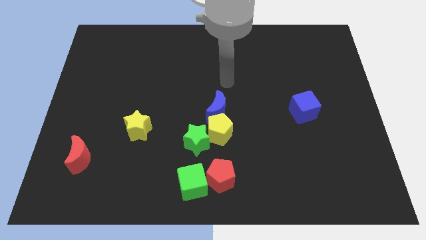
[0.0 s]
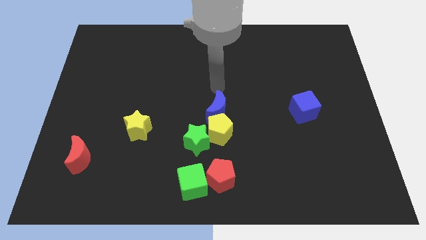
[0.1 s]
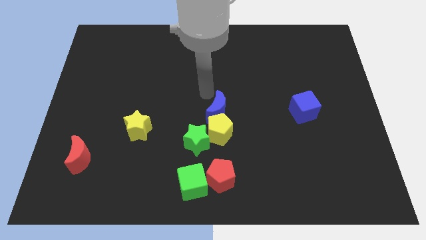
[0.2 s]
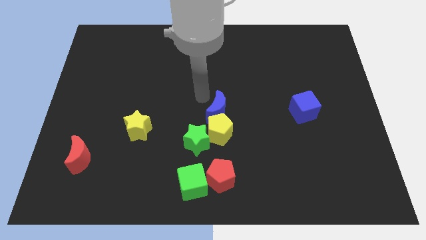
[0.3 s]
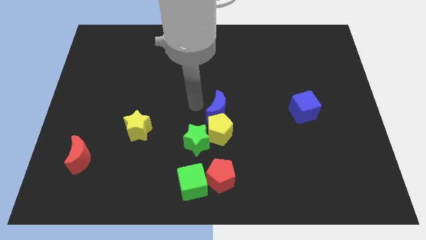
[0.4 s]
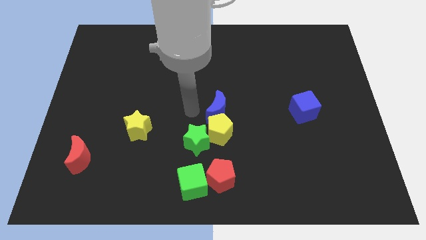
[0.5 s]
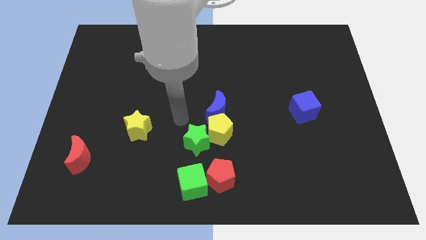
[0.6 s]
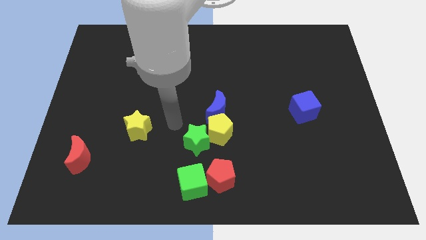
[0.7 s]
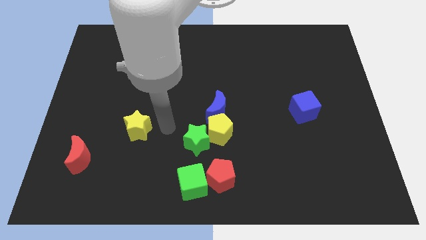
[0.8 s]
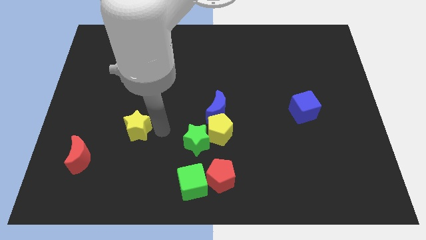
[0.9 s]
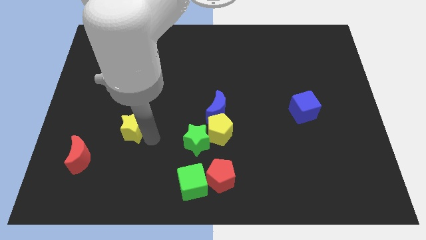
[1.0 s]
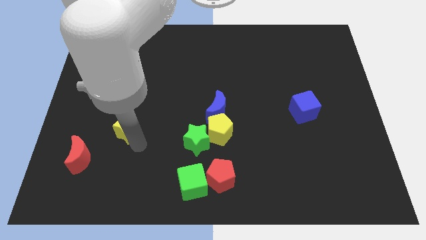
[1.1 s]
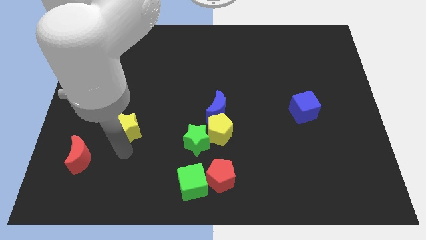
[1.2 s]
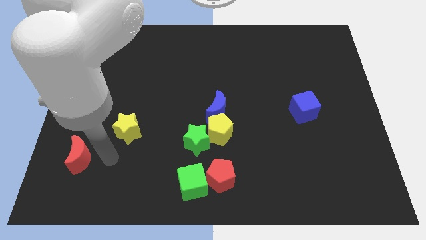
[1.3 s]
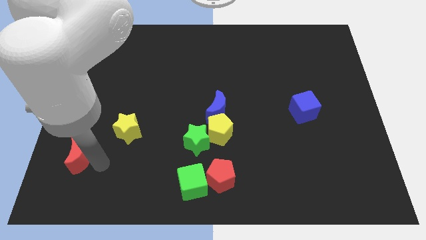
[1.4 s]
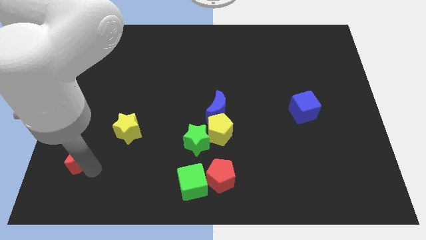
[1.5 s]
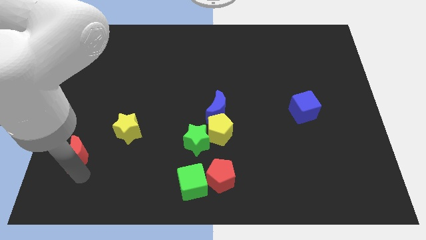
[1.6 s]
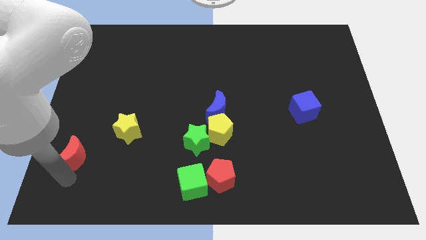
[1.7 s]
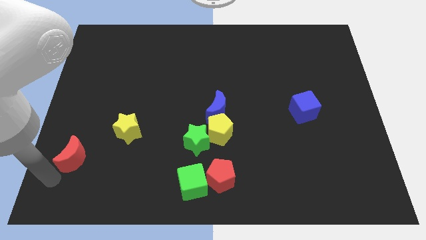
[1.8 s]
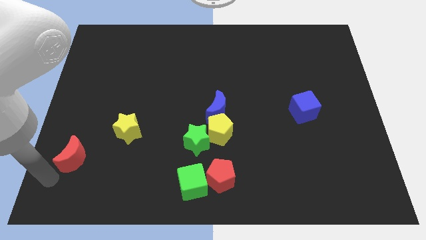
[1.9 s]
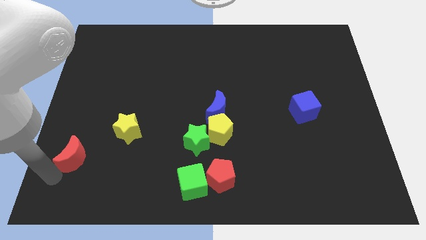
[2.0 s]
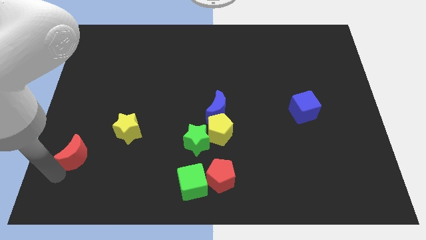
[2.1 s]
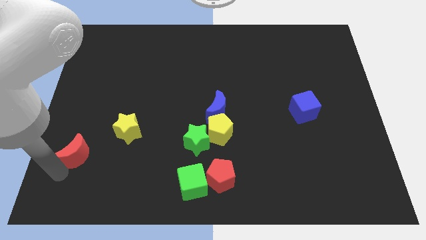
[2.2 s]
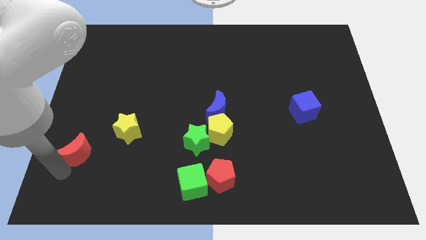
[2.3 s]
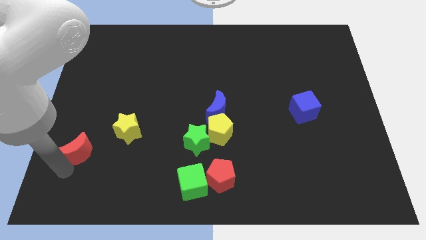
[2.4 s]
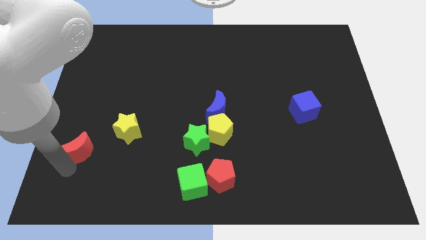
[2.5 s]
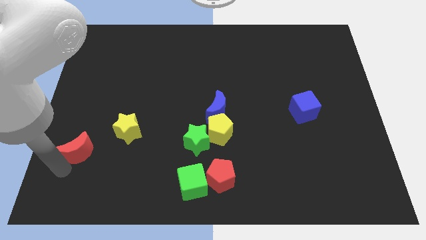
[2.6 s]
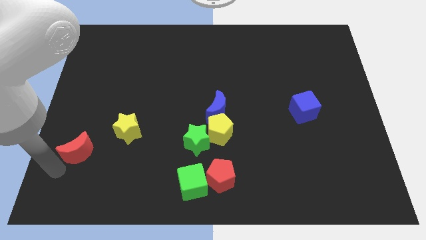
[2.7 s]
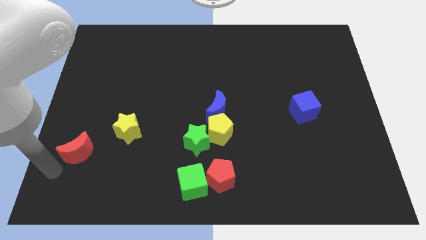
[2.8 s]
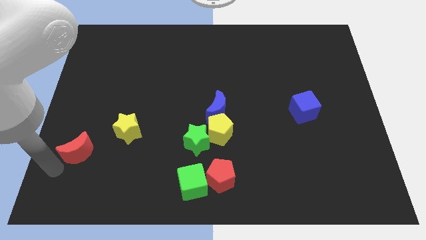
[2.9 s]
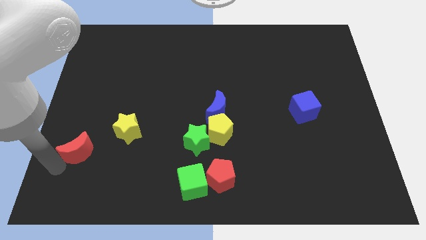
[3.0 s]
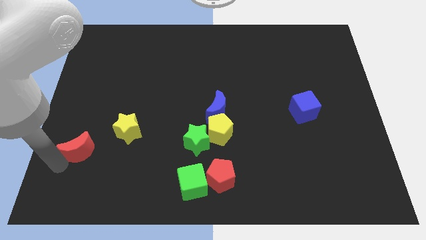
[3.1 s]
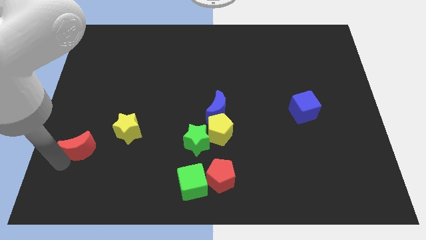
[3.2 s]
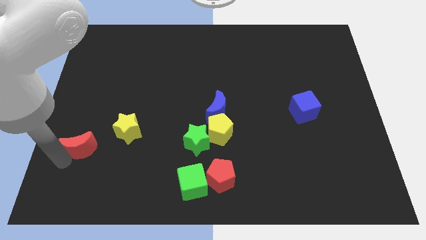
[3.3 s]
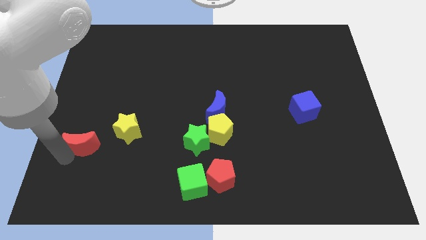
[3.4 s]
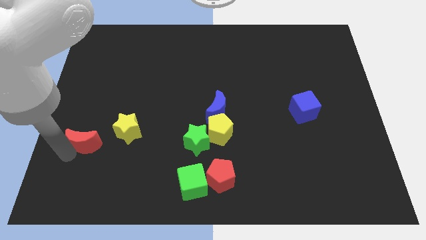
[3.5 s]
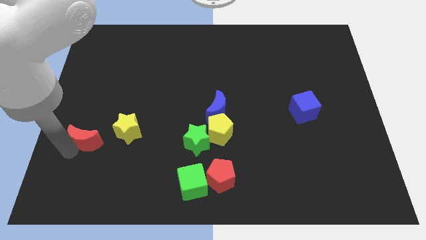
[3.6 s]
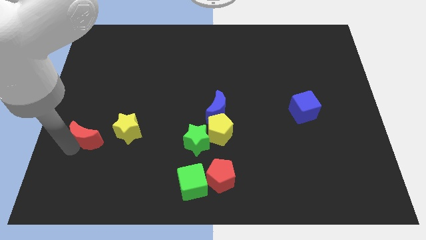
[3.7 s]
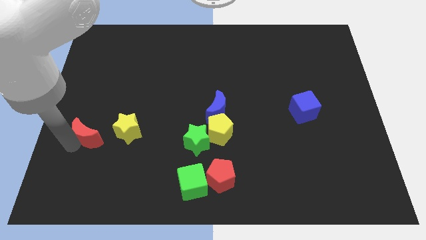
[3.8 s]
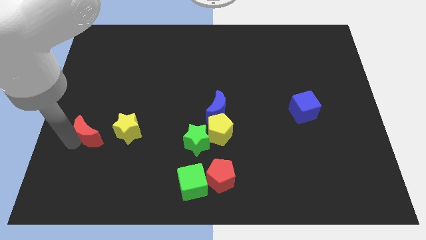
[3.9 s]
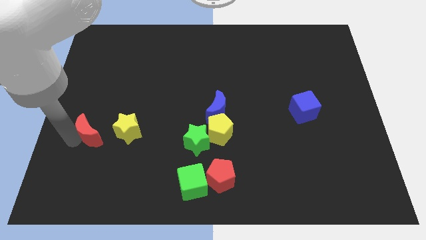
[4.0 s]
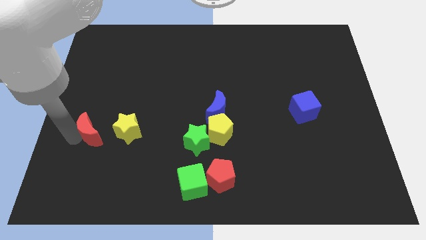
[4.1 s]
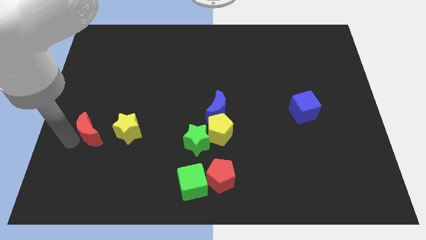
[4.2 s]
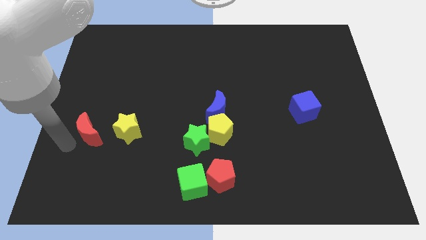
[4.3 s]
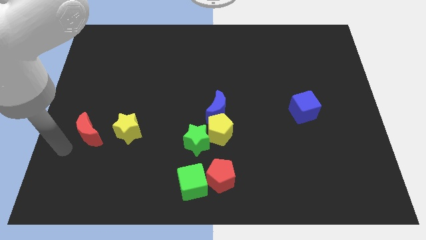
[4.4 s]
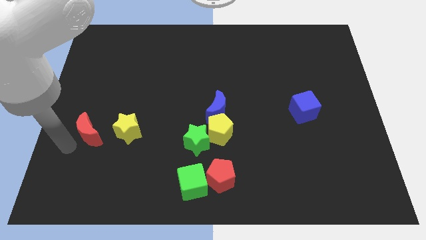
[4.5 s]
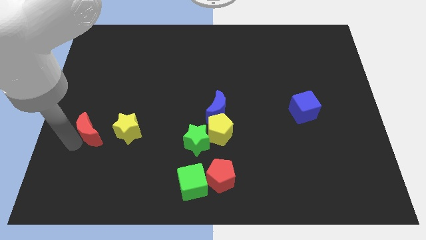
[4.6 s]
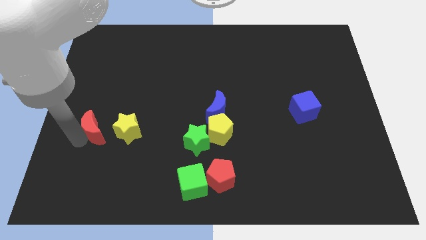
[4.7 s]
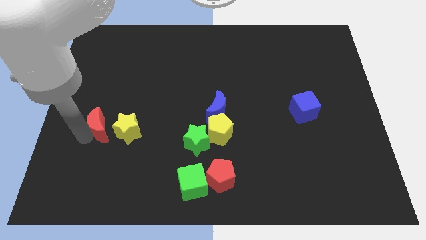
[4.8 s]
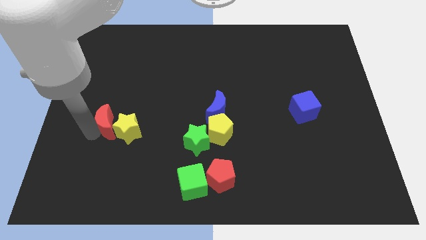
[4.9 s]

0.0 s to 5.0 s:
push the red moon a bit upwards and then right

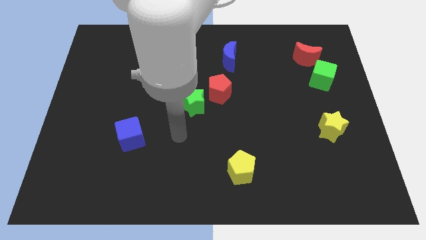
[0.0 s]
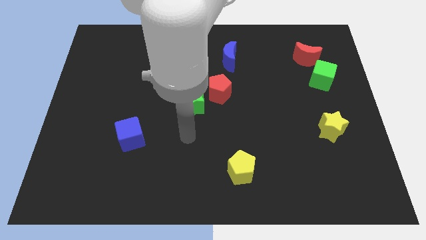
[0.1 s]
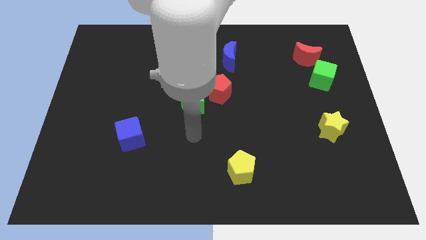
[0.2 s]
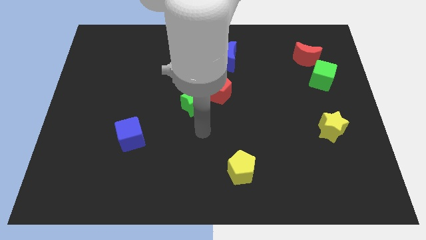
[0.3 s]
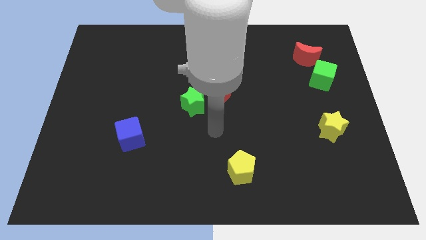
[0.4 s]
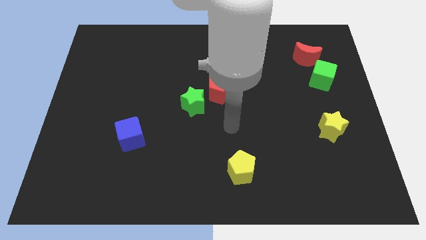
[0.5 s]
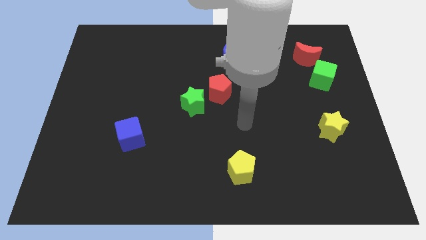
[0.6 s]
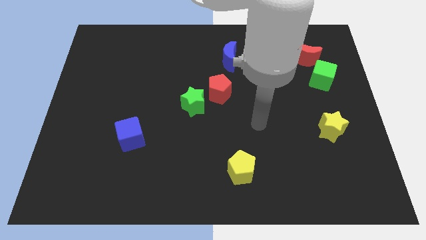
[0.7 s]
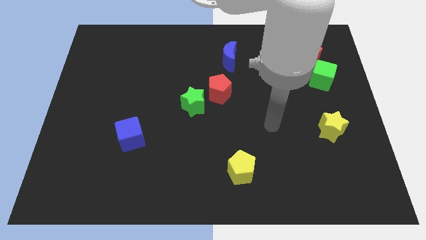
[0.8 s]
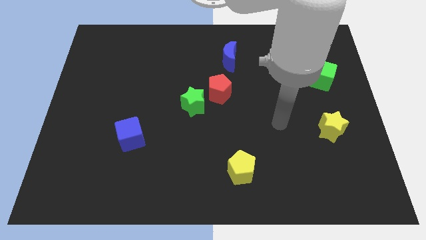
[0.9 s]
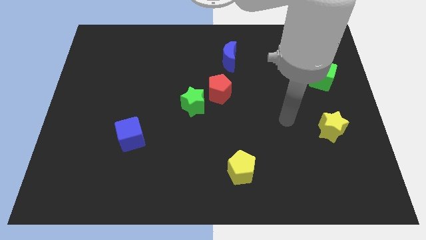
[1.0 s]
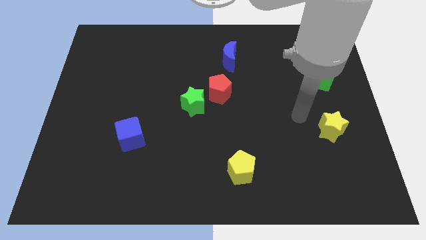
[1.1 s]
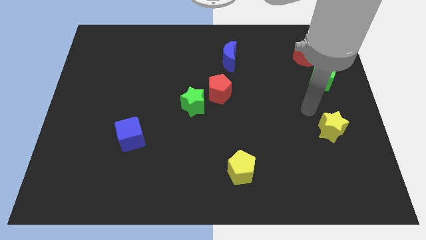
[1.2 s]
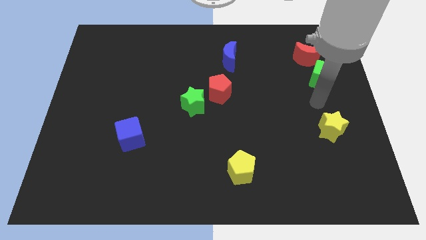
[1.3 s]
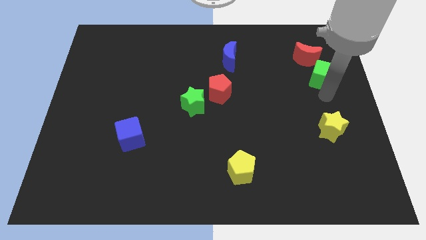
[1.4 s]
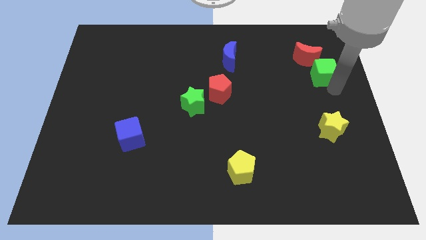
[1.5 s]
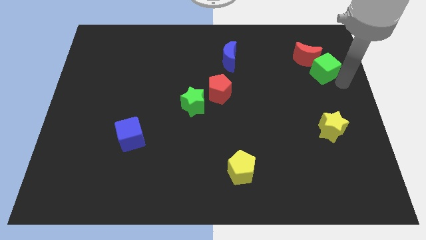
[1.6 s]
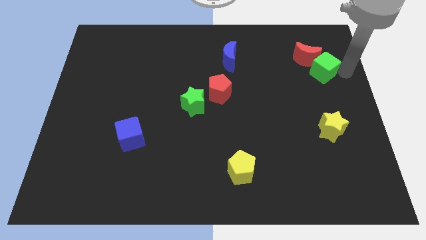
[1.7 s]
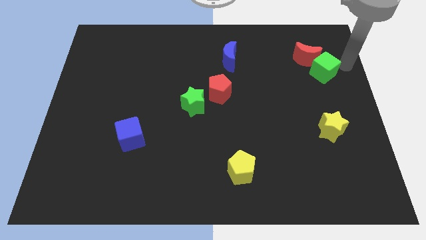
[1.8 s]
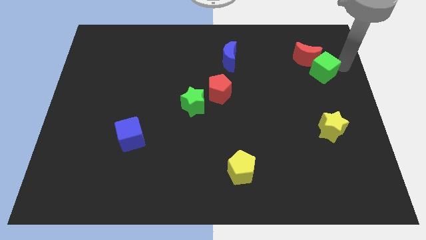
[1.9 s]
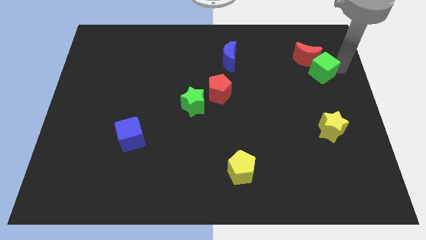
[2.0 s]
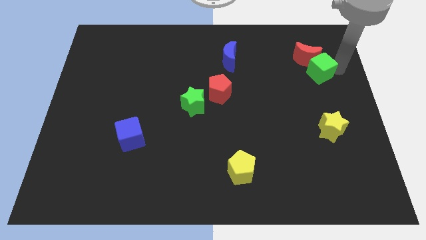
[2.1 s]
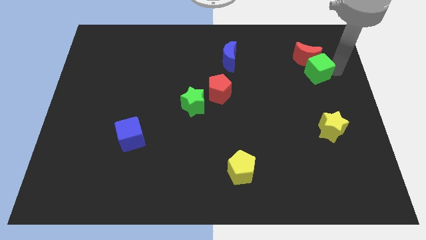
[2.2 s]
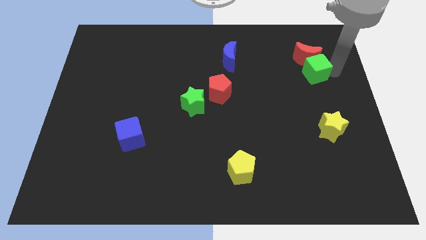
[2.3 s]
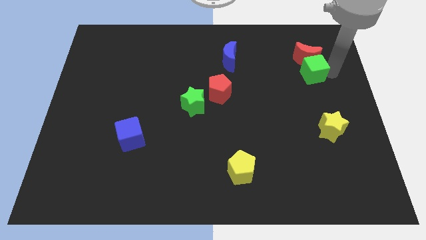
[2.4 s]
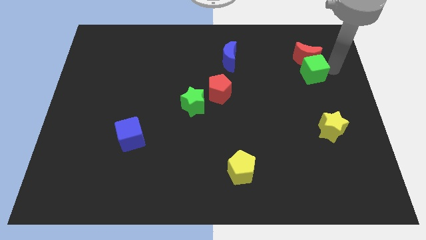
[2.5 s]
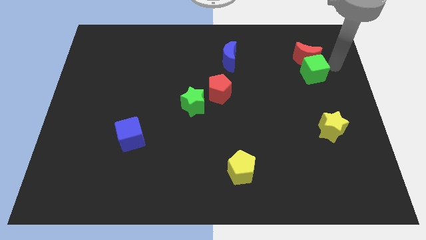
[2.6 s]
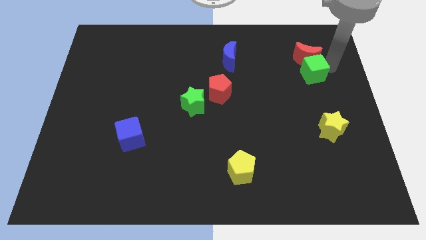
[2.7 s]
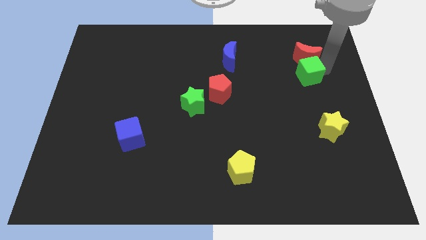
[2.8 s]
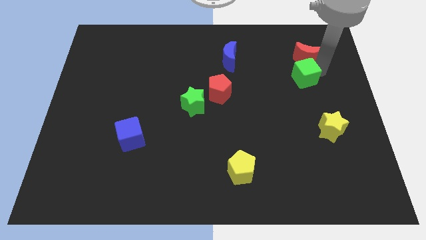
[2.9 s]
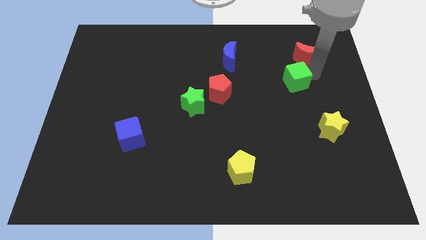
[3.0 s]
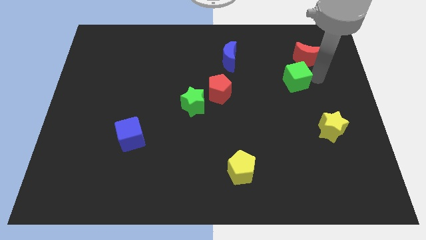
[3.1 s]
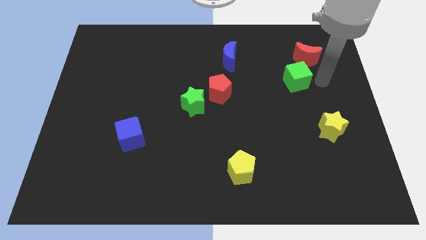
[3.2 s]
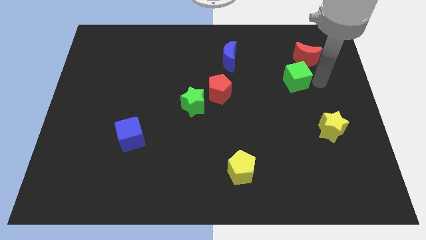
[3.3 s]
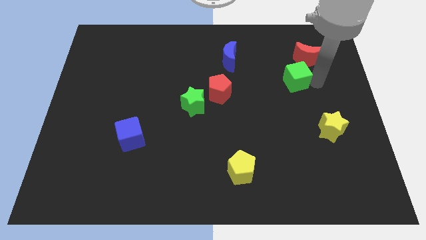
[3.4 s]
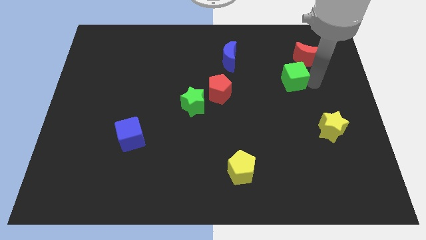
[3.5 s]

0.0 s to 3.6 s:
slightly move the green cube left
